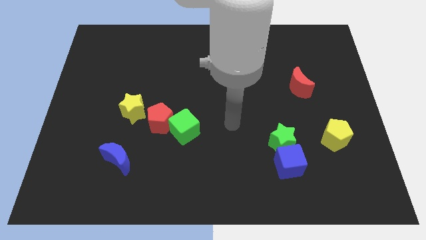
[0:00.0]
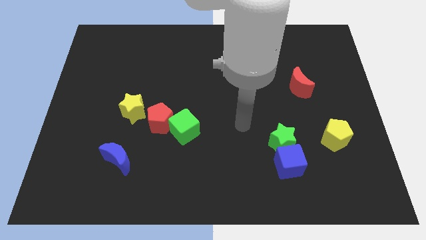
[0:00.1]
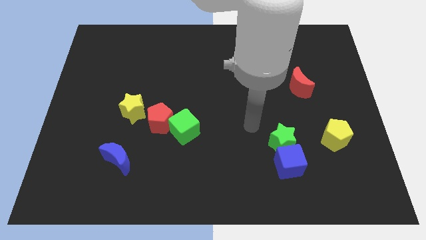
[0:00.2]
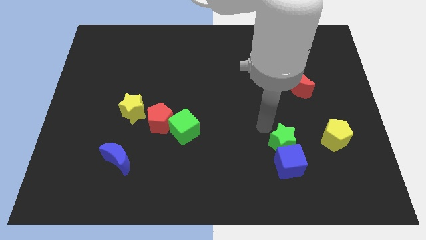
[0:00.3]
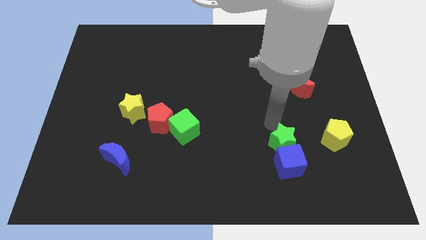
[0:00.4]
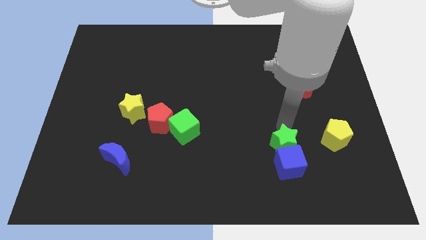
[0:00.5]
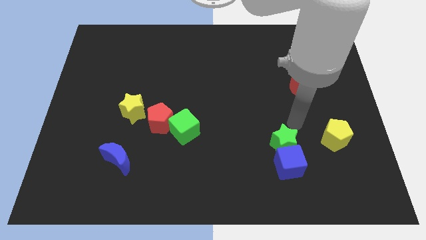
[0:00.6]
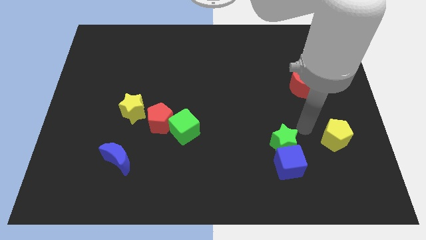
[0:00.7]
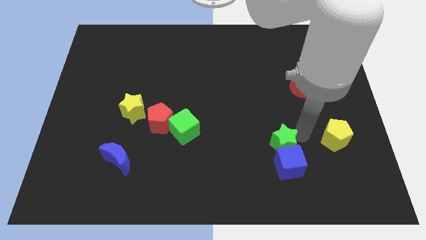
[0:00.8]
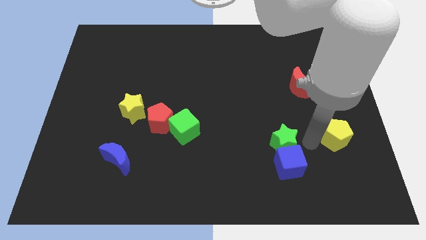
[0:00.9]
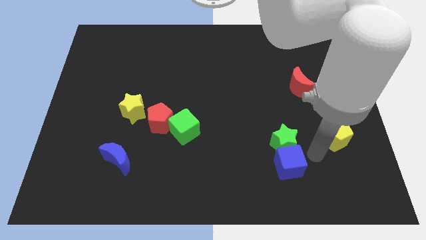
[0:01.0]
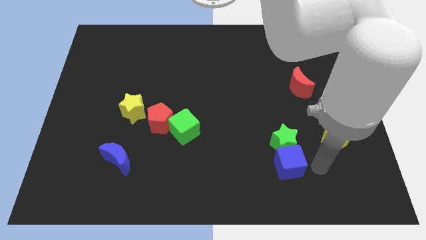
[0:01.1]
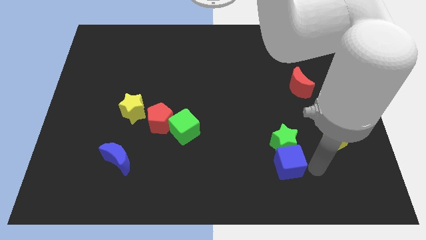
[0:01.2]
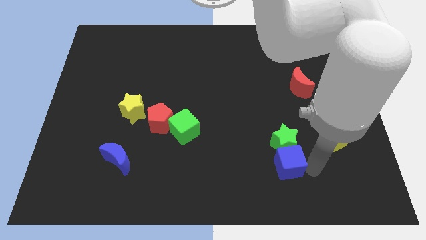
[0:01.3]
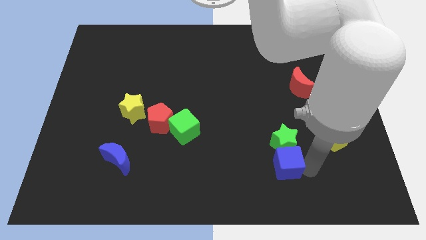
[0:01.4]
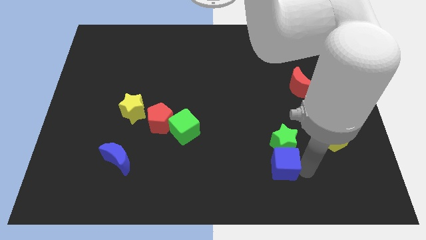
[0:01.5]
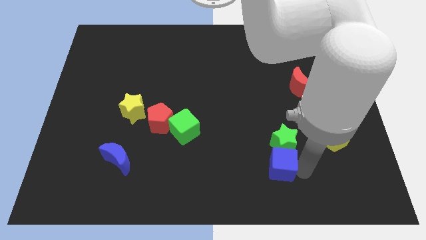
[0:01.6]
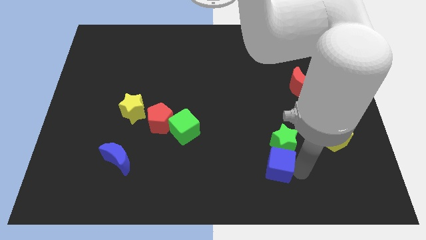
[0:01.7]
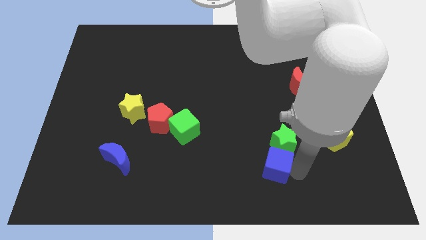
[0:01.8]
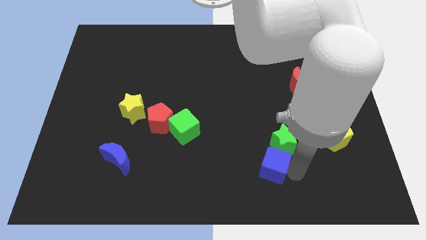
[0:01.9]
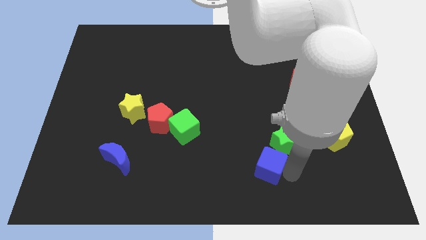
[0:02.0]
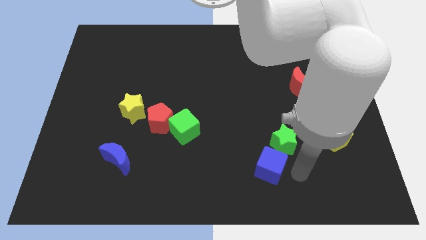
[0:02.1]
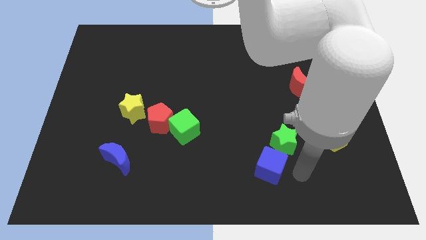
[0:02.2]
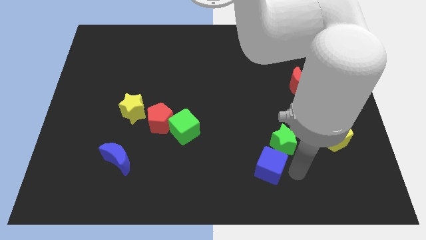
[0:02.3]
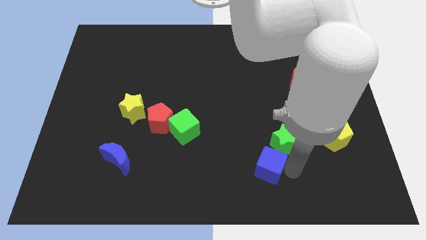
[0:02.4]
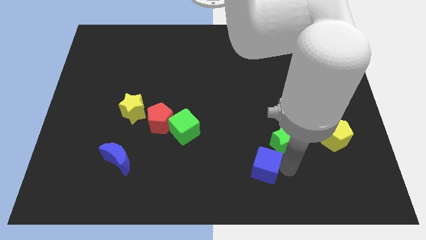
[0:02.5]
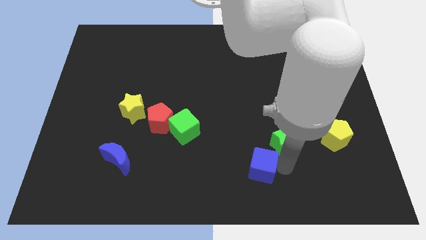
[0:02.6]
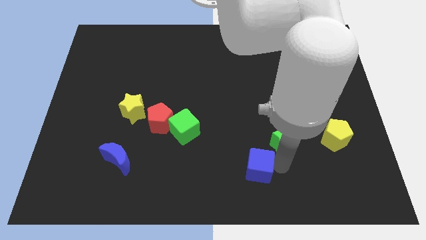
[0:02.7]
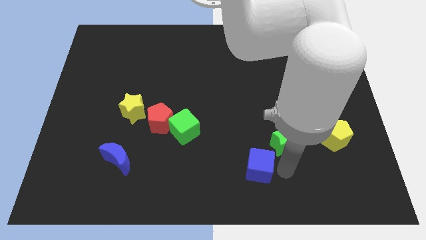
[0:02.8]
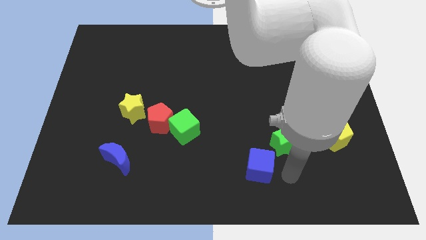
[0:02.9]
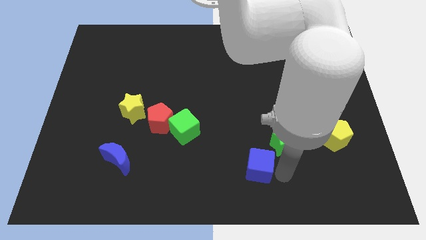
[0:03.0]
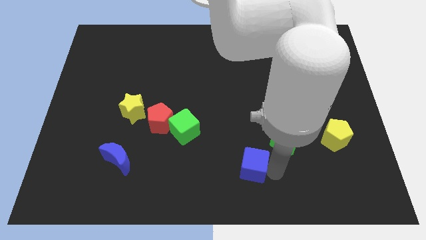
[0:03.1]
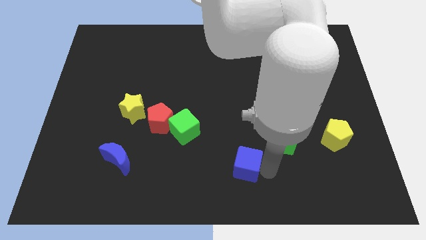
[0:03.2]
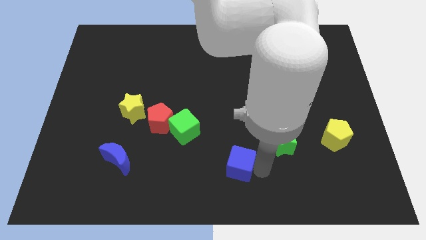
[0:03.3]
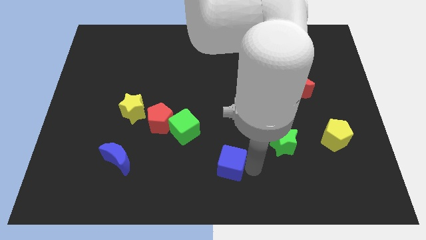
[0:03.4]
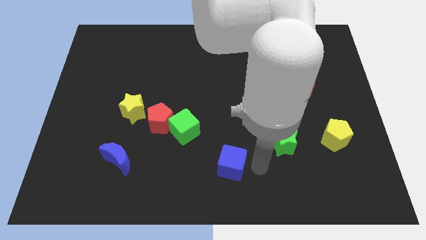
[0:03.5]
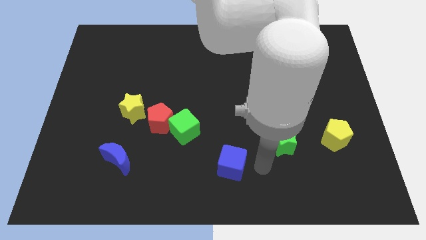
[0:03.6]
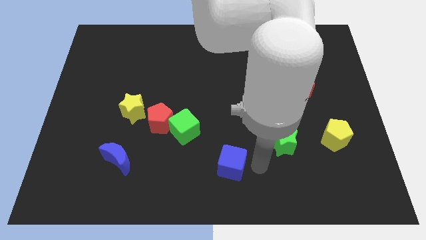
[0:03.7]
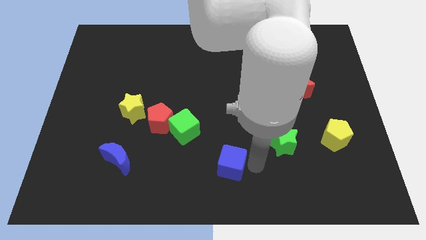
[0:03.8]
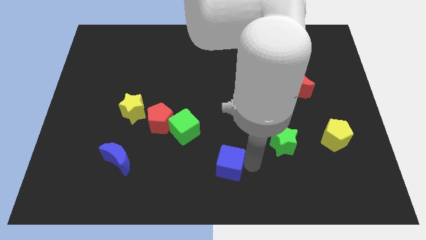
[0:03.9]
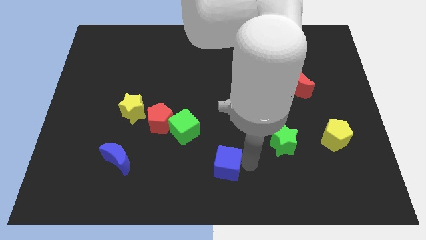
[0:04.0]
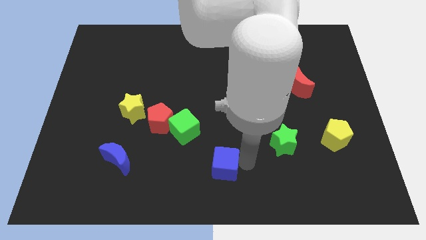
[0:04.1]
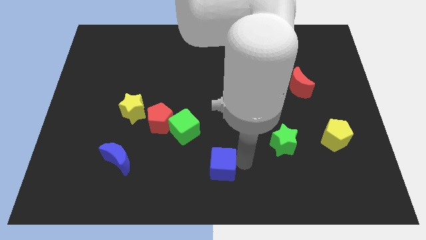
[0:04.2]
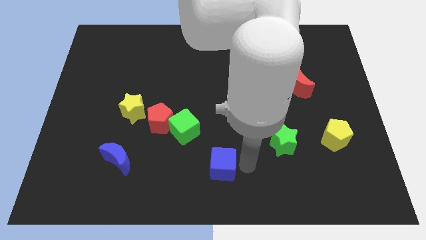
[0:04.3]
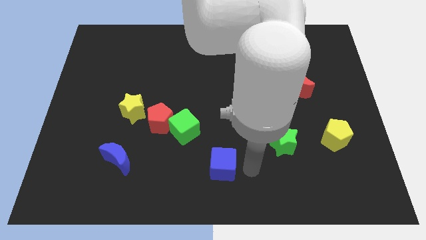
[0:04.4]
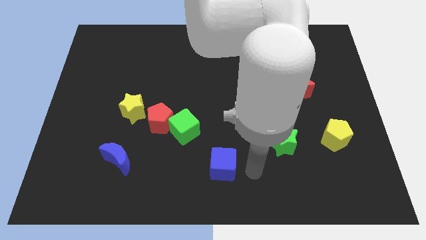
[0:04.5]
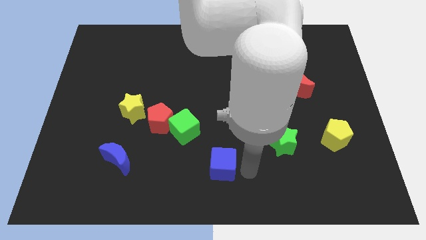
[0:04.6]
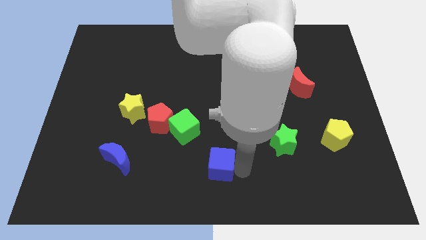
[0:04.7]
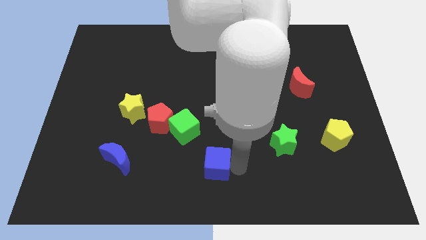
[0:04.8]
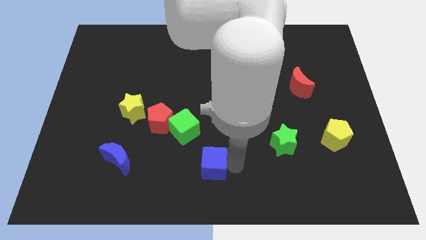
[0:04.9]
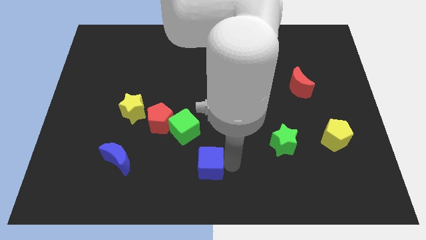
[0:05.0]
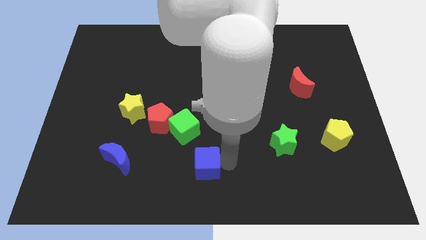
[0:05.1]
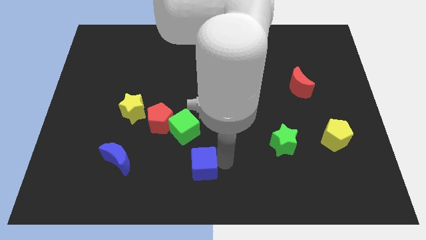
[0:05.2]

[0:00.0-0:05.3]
move the blue cube below the green cube

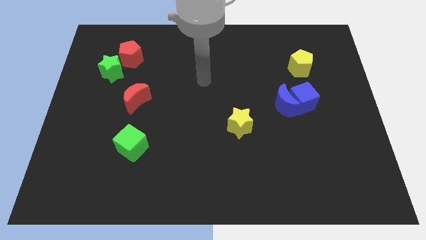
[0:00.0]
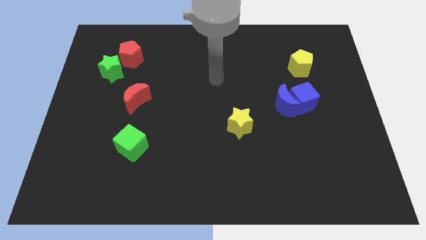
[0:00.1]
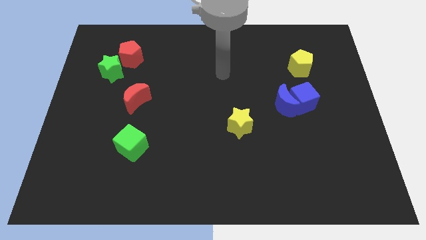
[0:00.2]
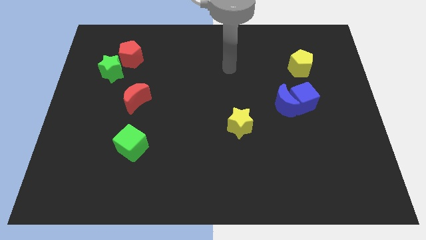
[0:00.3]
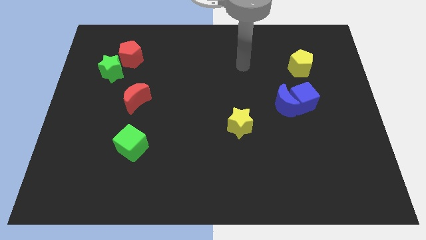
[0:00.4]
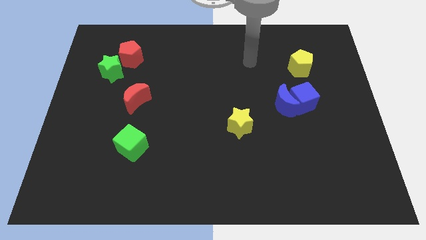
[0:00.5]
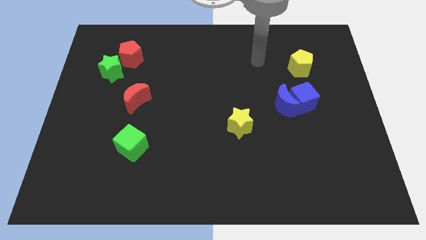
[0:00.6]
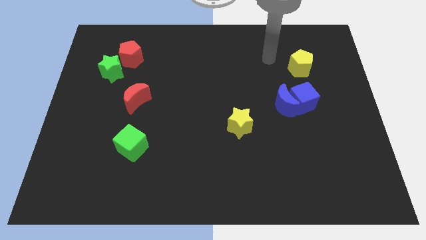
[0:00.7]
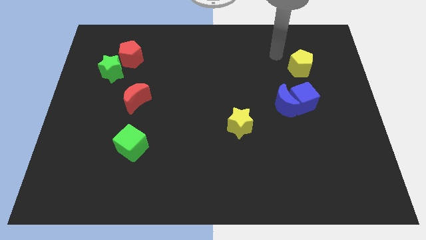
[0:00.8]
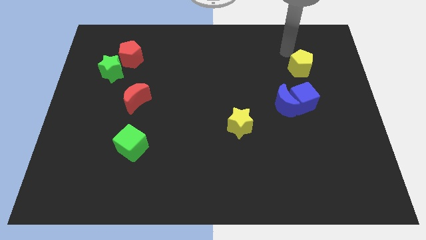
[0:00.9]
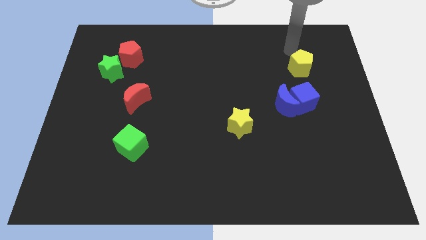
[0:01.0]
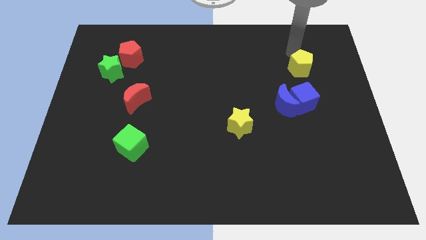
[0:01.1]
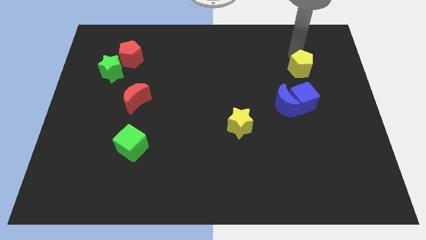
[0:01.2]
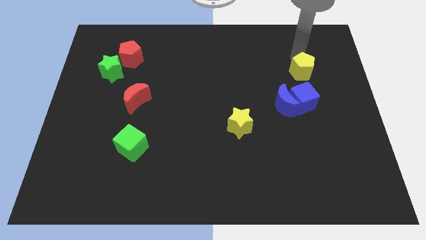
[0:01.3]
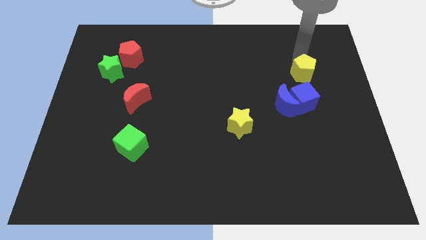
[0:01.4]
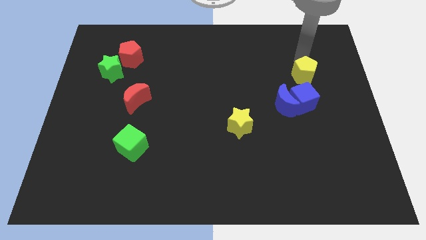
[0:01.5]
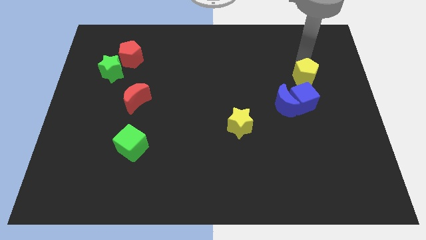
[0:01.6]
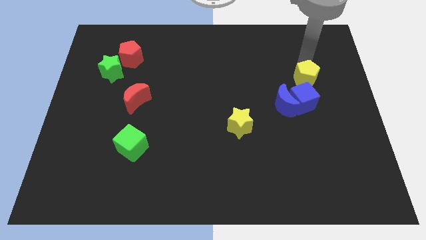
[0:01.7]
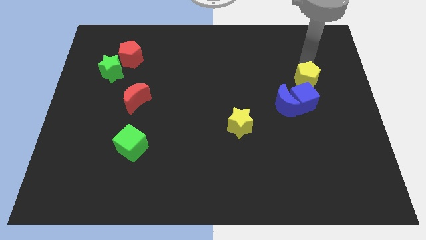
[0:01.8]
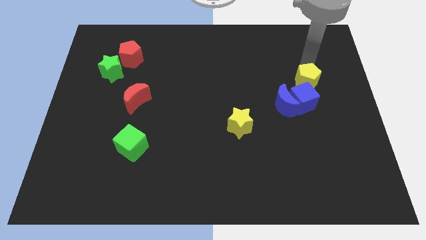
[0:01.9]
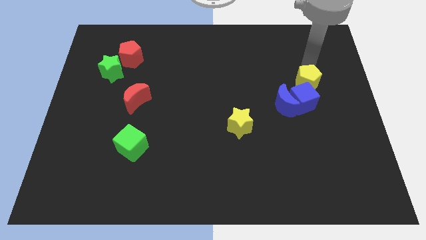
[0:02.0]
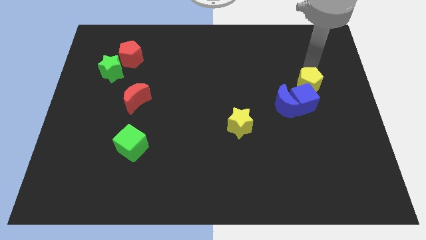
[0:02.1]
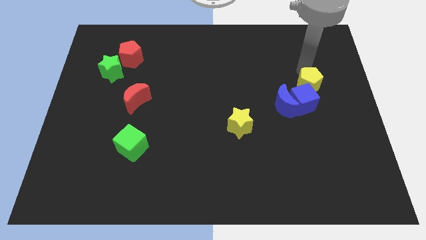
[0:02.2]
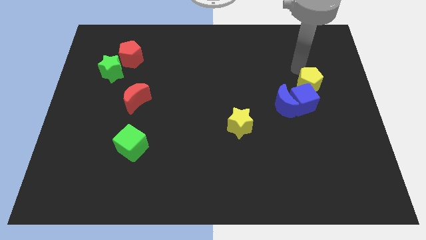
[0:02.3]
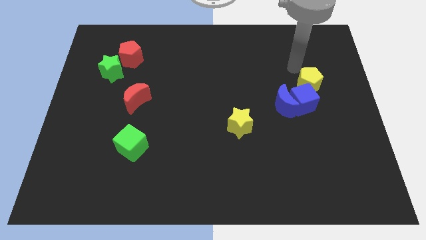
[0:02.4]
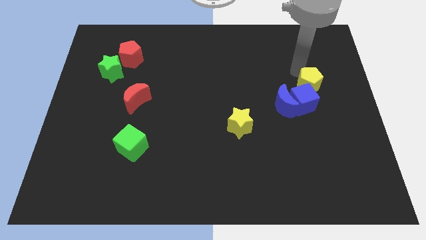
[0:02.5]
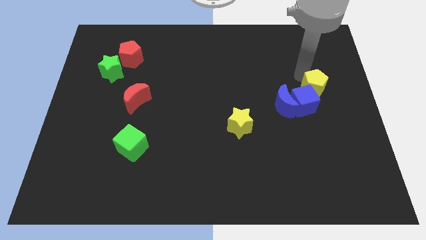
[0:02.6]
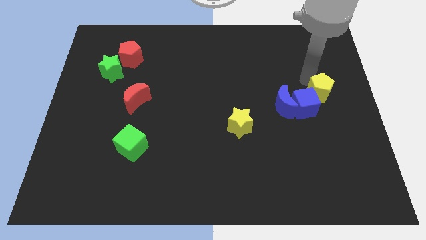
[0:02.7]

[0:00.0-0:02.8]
move the yellow pentagon just right of the blue moon

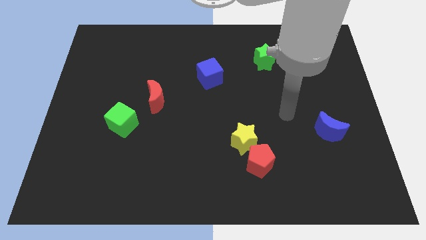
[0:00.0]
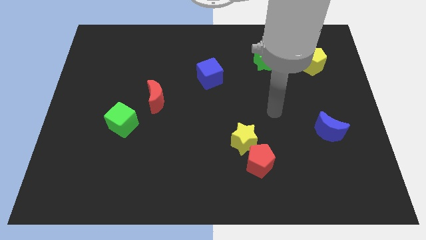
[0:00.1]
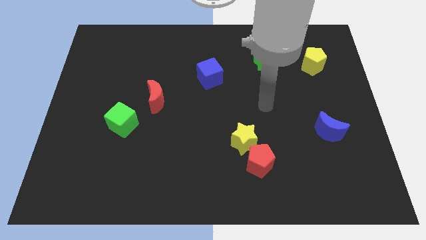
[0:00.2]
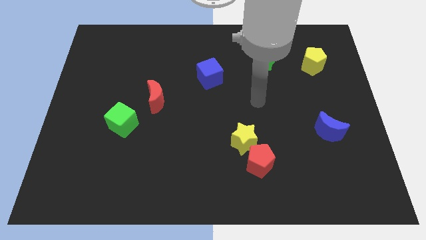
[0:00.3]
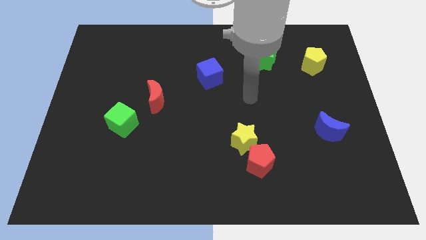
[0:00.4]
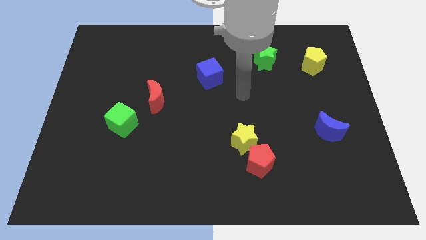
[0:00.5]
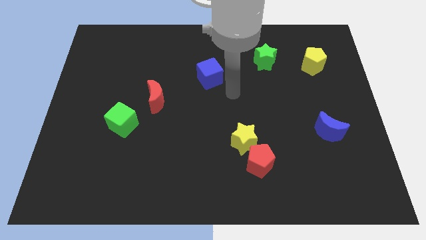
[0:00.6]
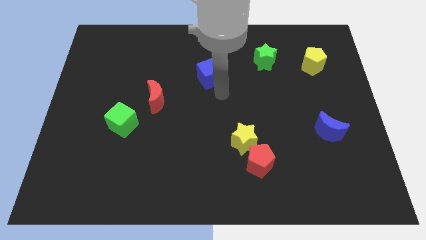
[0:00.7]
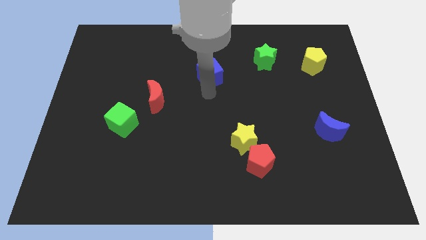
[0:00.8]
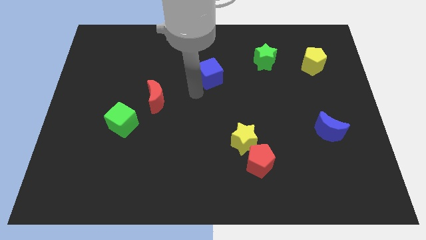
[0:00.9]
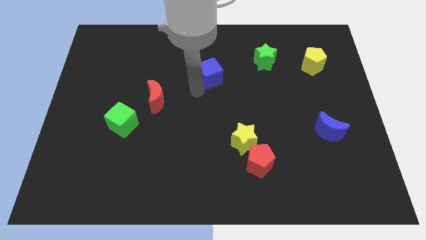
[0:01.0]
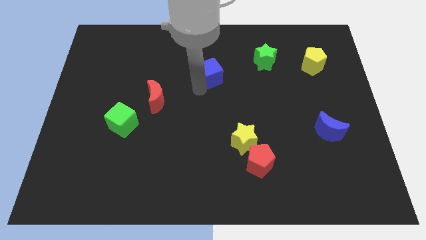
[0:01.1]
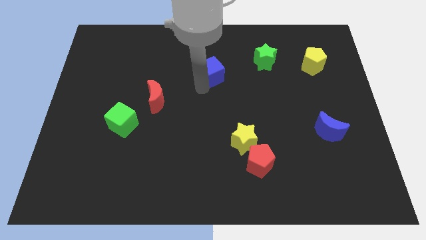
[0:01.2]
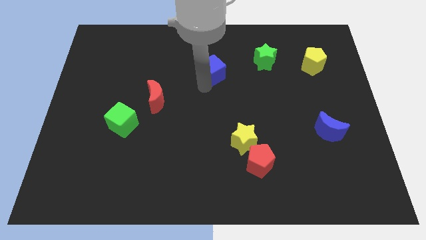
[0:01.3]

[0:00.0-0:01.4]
slide the blue cube just left of the green star
